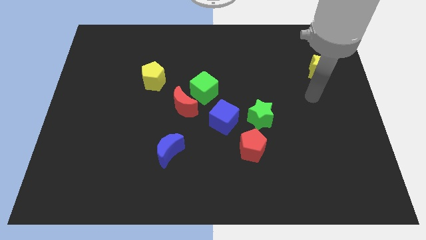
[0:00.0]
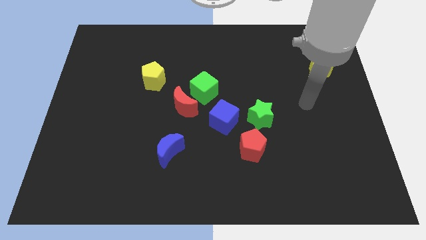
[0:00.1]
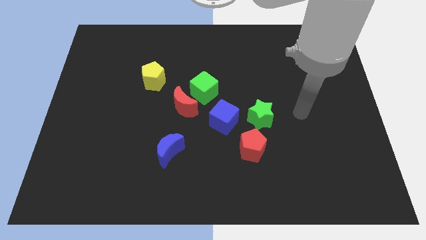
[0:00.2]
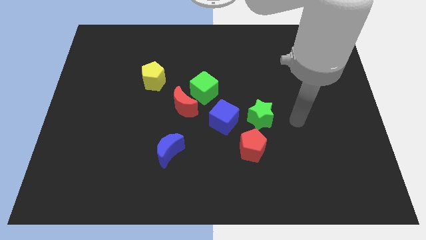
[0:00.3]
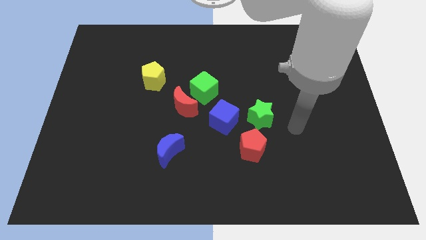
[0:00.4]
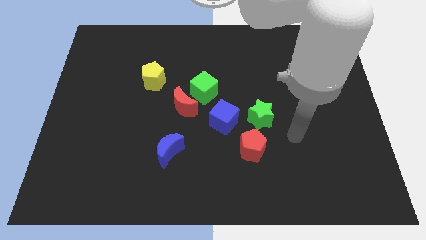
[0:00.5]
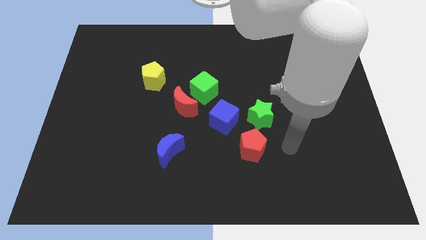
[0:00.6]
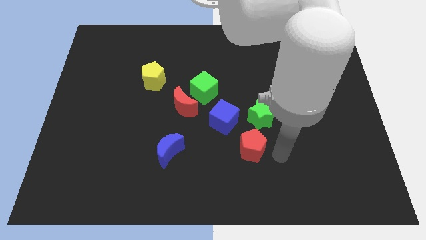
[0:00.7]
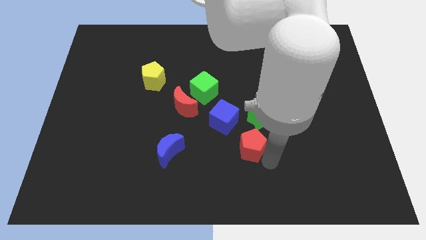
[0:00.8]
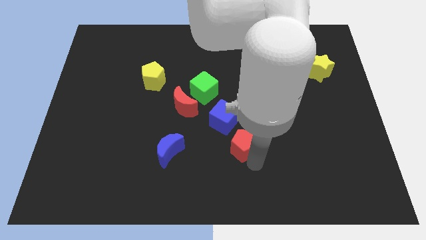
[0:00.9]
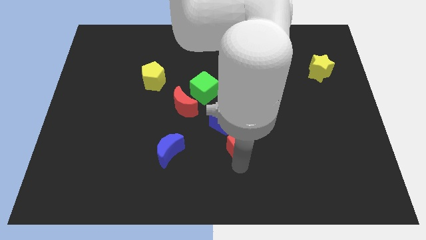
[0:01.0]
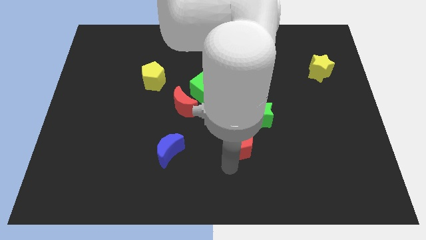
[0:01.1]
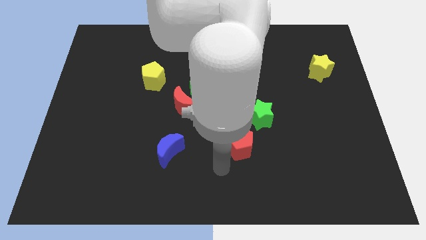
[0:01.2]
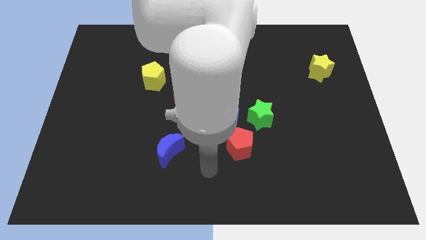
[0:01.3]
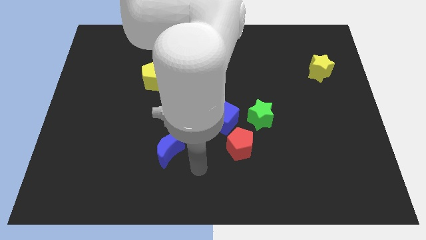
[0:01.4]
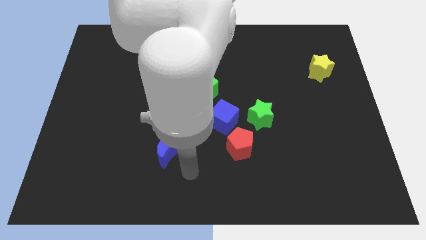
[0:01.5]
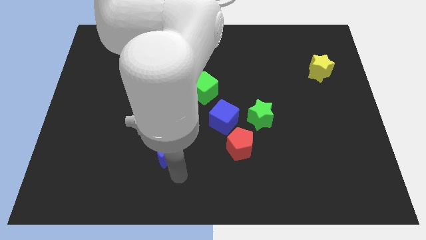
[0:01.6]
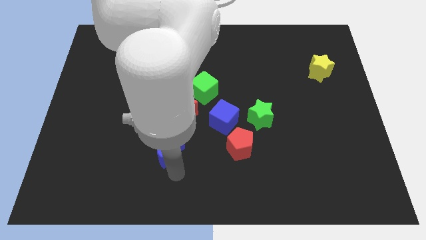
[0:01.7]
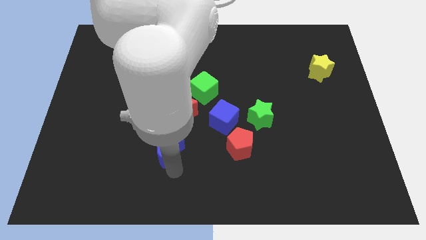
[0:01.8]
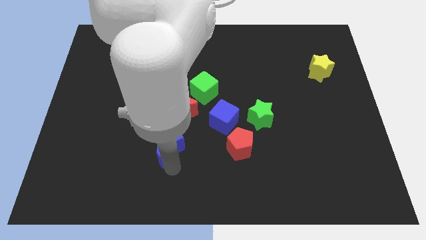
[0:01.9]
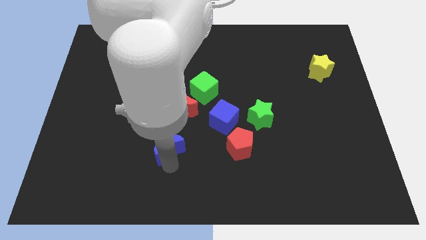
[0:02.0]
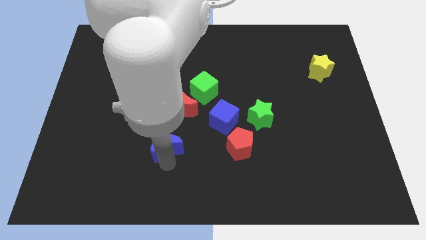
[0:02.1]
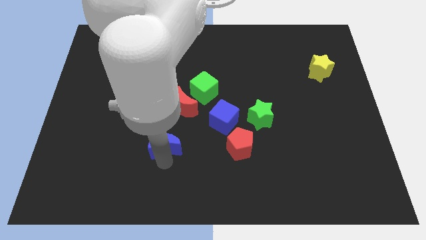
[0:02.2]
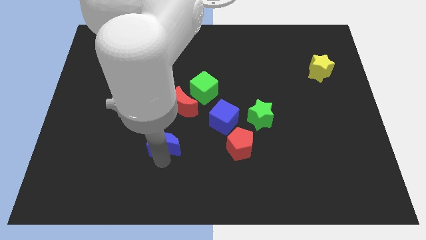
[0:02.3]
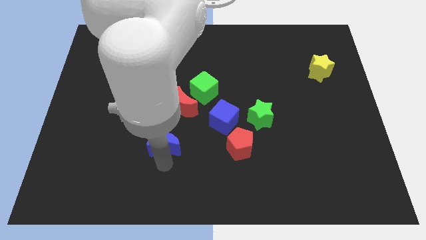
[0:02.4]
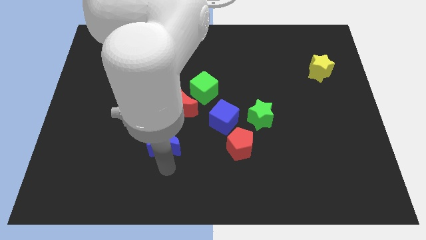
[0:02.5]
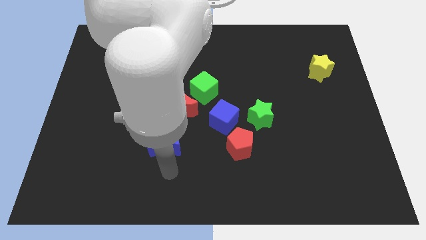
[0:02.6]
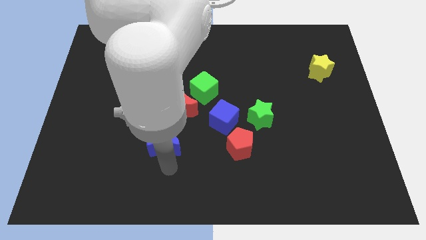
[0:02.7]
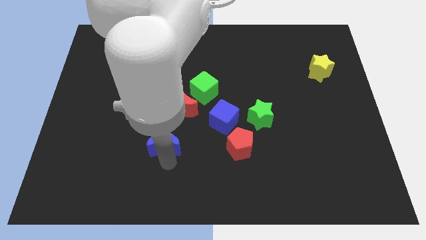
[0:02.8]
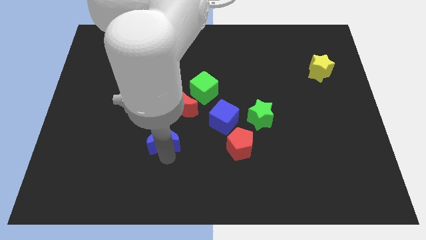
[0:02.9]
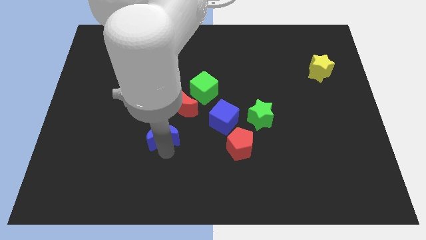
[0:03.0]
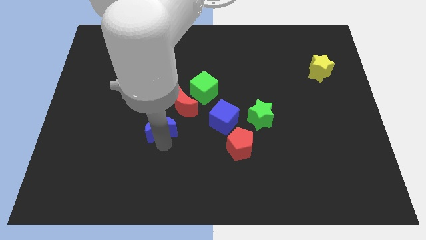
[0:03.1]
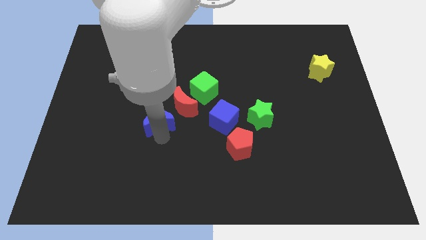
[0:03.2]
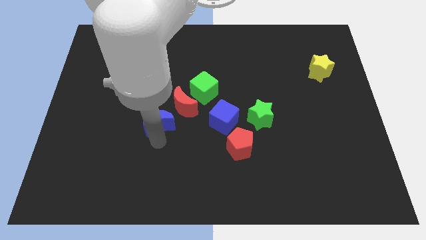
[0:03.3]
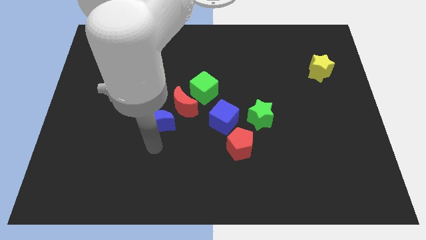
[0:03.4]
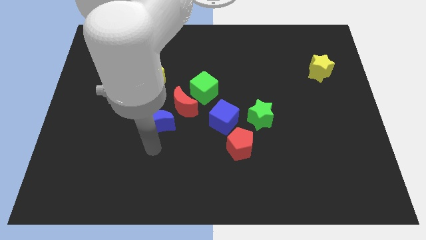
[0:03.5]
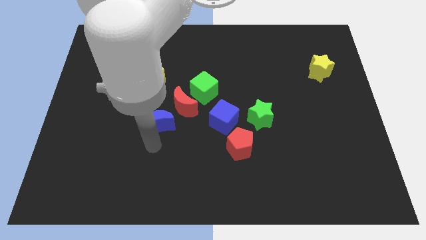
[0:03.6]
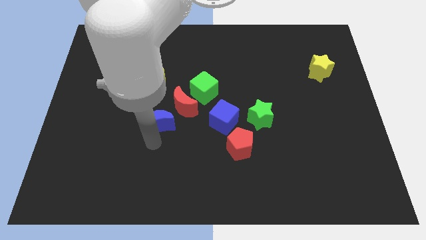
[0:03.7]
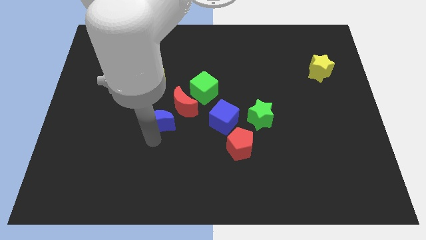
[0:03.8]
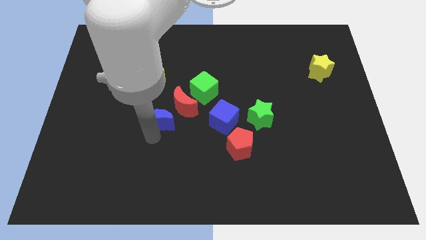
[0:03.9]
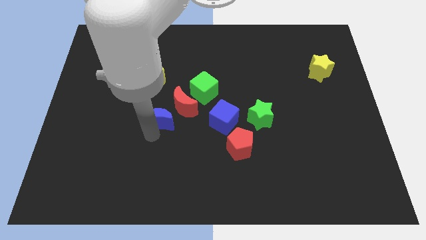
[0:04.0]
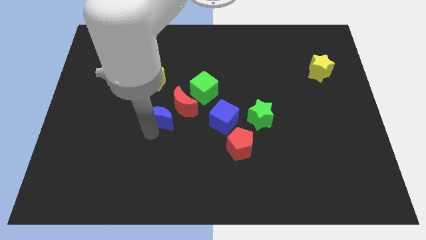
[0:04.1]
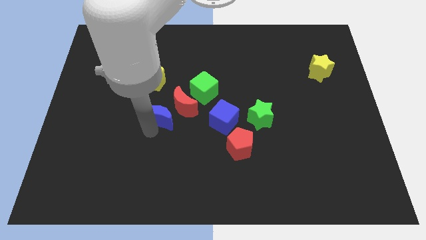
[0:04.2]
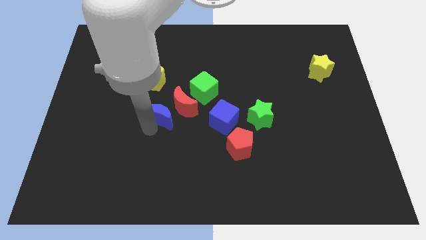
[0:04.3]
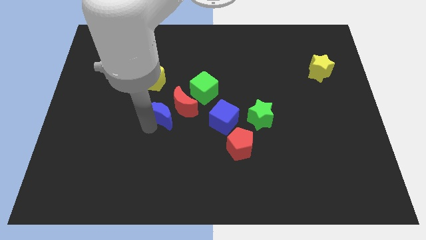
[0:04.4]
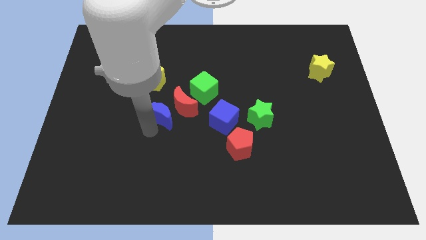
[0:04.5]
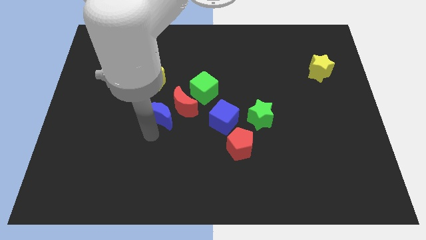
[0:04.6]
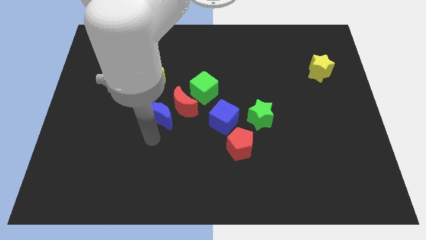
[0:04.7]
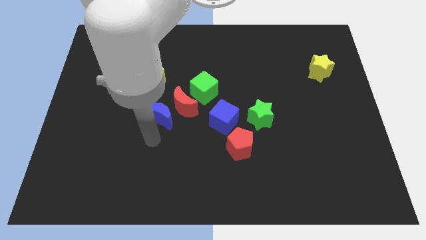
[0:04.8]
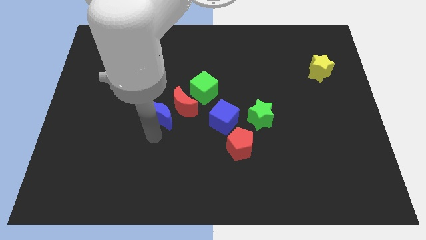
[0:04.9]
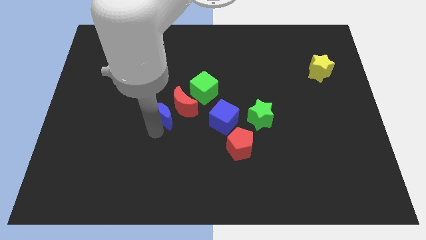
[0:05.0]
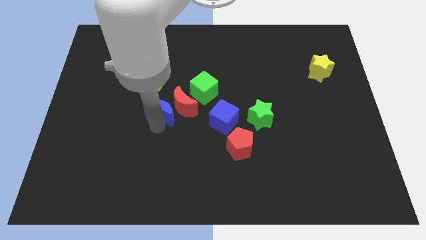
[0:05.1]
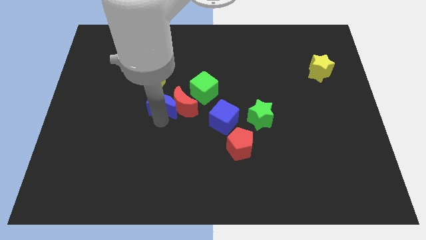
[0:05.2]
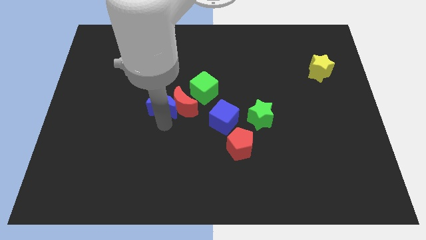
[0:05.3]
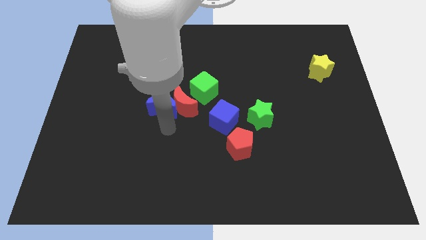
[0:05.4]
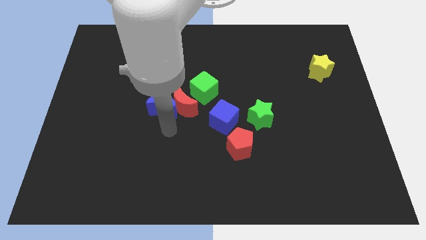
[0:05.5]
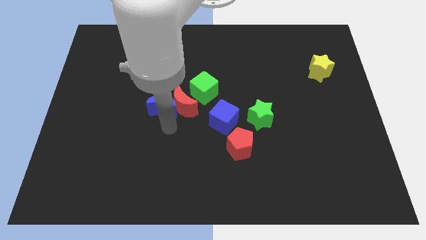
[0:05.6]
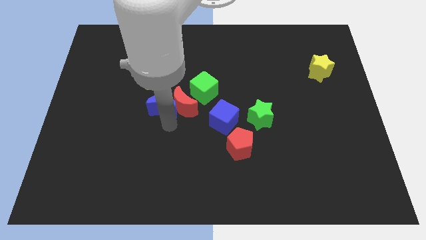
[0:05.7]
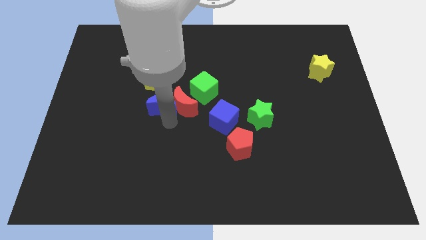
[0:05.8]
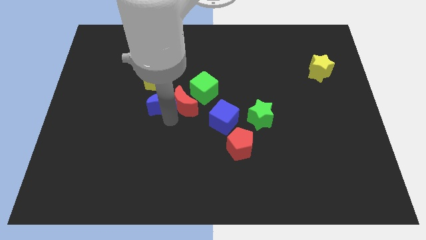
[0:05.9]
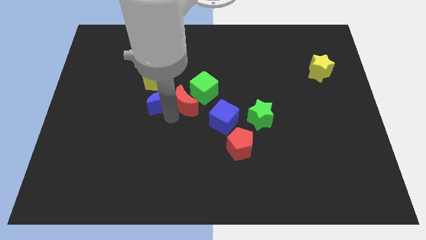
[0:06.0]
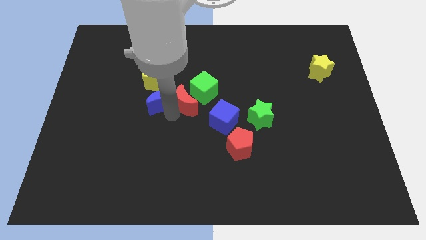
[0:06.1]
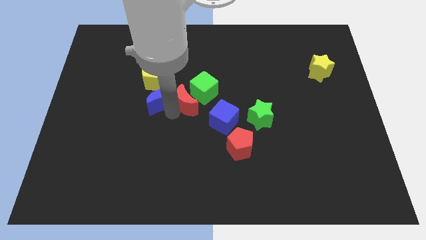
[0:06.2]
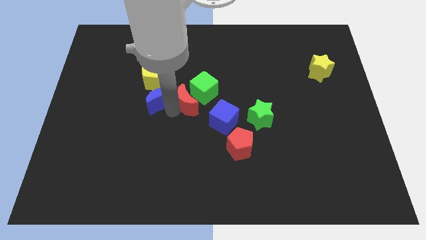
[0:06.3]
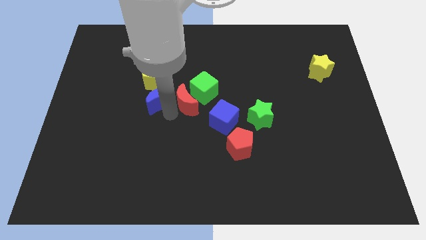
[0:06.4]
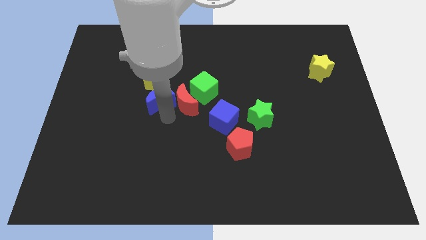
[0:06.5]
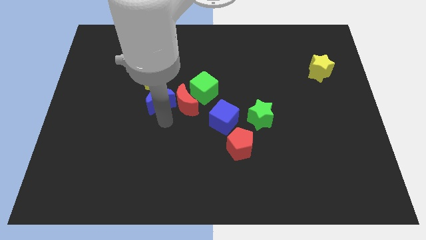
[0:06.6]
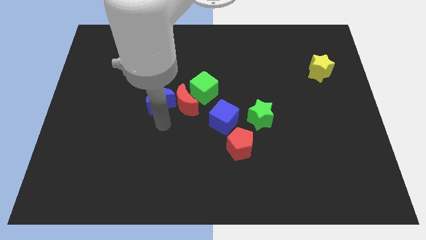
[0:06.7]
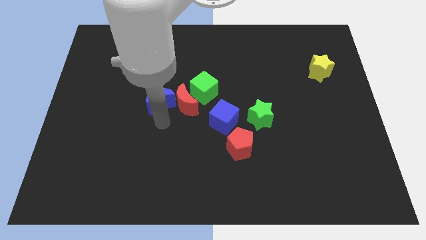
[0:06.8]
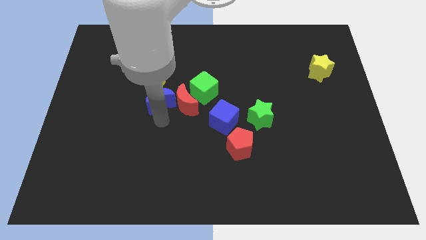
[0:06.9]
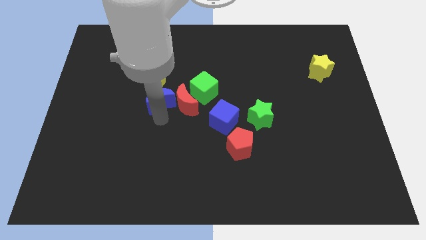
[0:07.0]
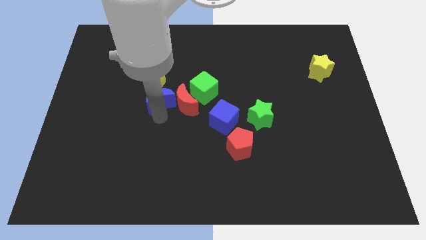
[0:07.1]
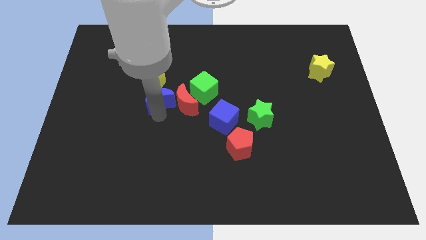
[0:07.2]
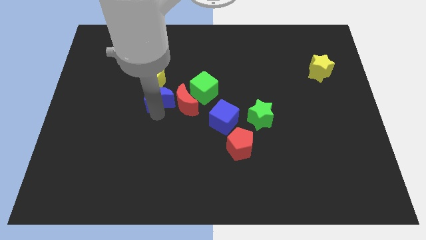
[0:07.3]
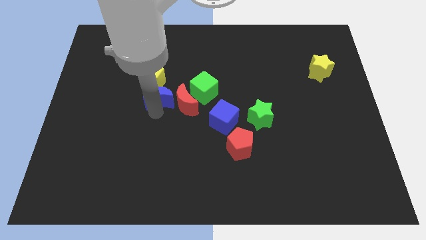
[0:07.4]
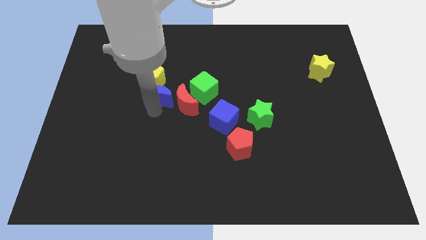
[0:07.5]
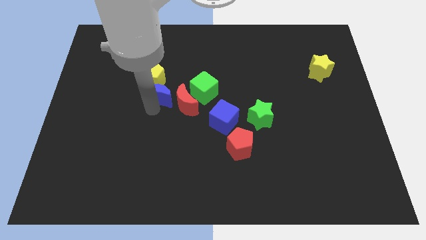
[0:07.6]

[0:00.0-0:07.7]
slide the blue moon to the yellow pentagon
